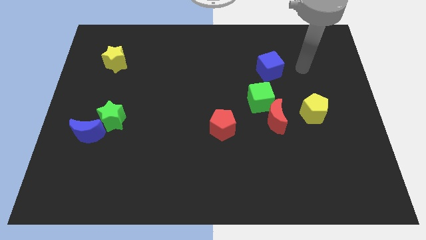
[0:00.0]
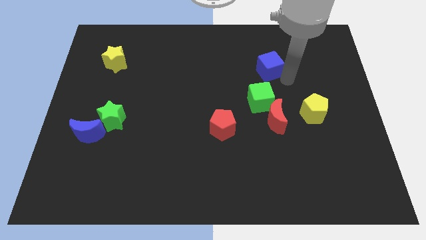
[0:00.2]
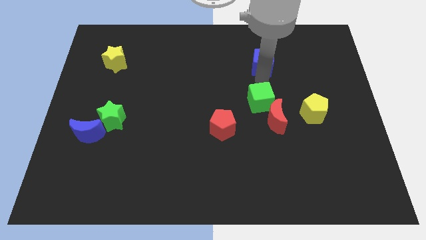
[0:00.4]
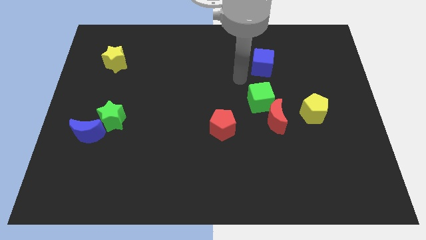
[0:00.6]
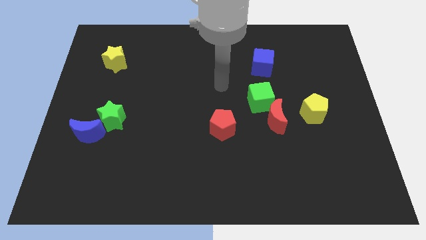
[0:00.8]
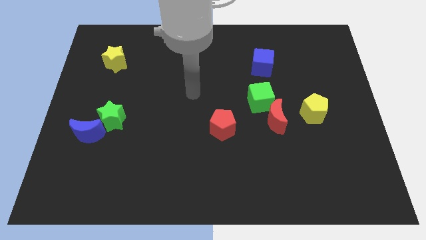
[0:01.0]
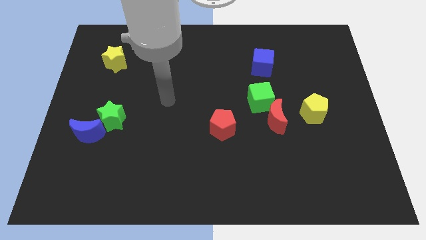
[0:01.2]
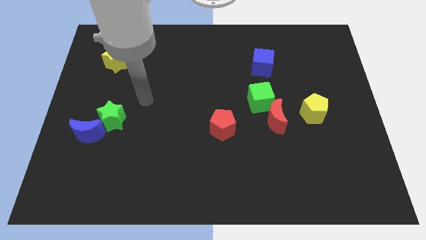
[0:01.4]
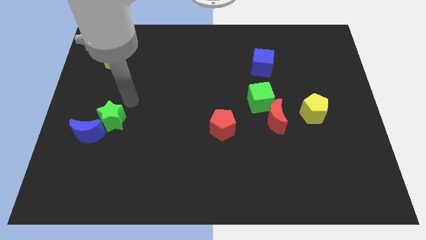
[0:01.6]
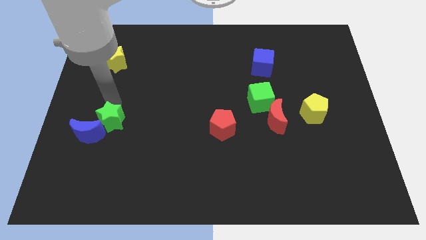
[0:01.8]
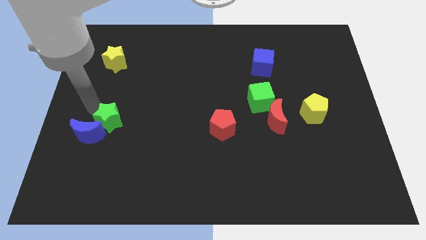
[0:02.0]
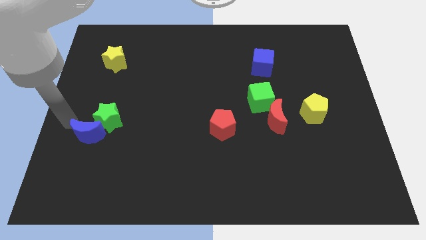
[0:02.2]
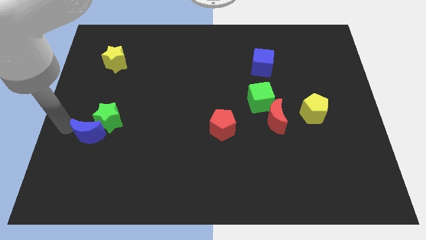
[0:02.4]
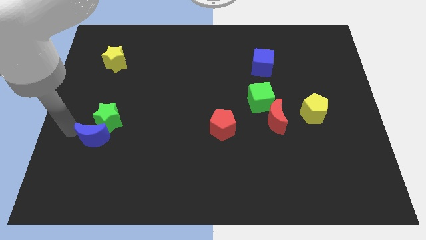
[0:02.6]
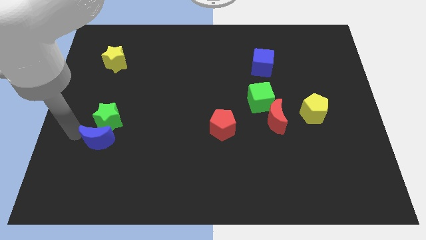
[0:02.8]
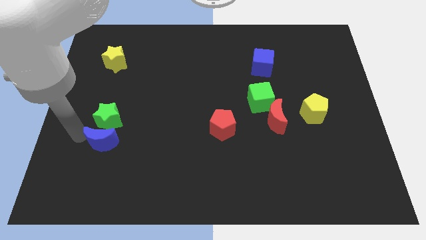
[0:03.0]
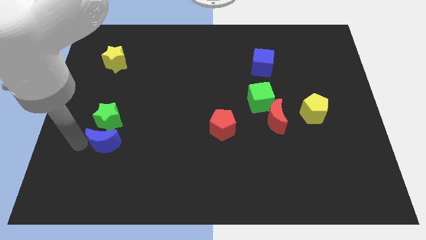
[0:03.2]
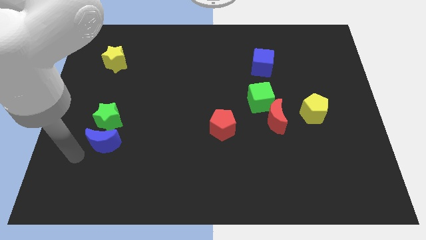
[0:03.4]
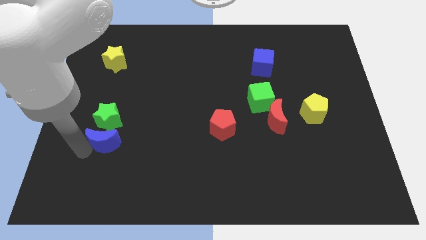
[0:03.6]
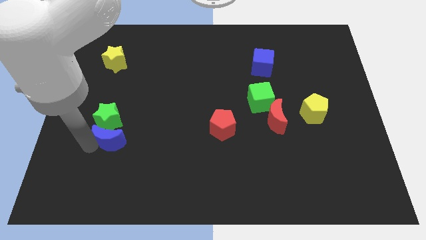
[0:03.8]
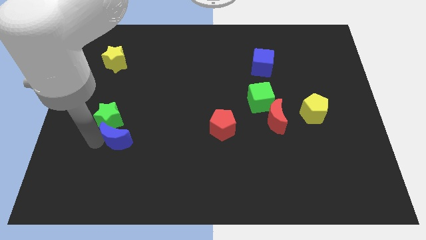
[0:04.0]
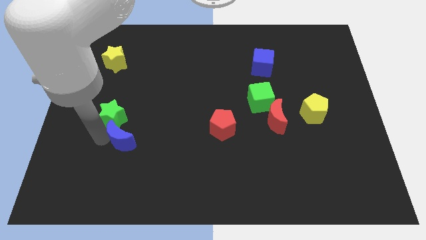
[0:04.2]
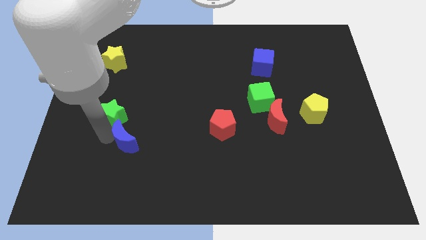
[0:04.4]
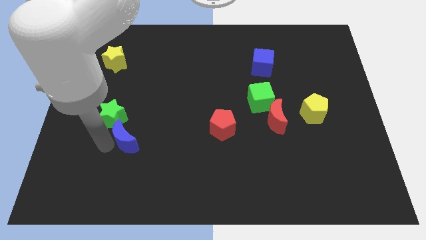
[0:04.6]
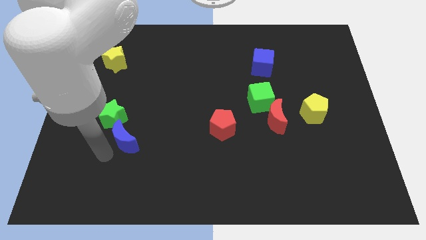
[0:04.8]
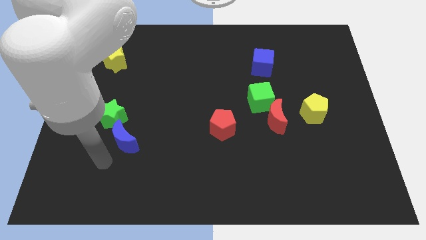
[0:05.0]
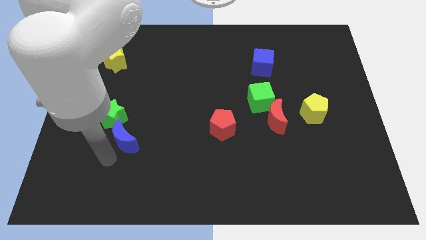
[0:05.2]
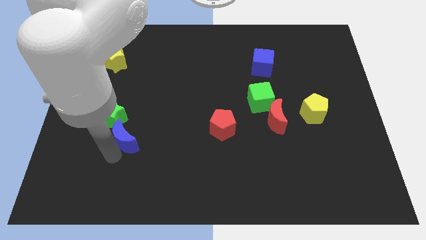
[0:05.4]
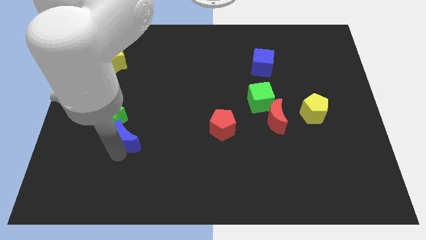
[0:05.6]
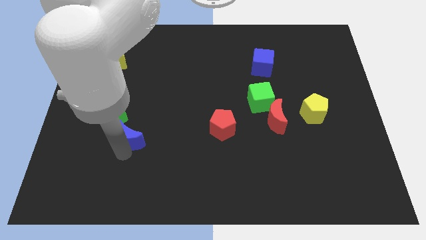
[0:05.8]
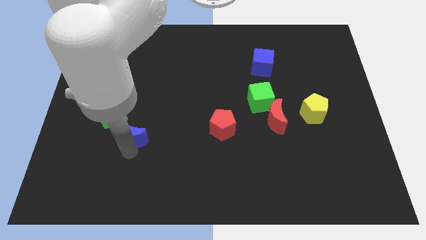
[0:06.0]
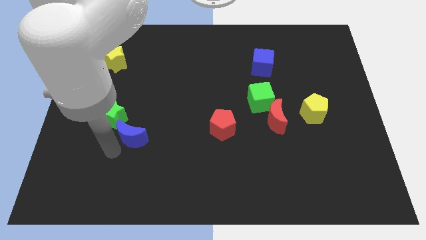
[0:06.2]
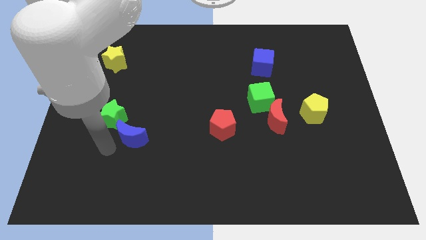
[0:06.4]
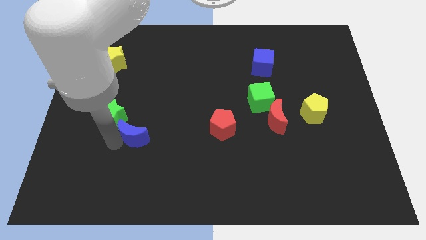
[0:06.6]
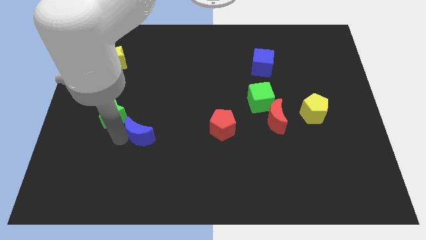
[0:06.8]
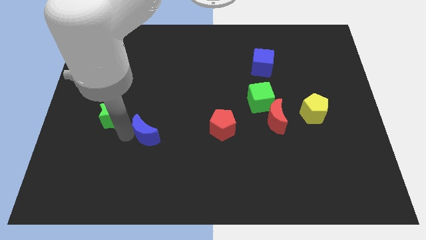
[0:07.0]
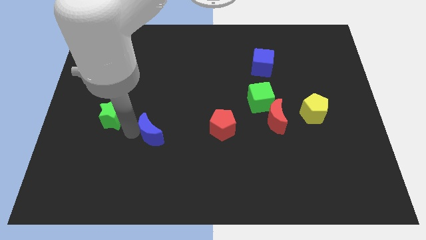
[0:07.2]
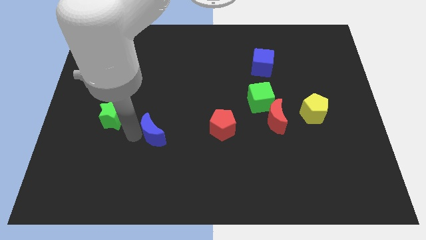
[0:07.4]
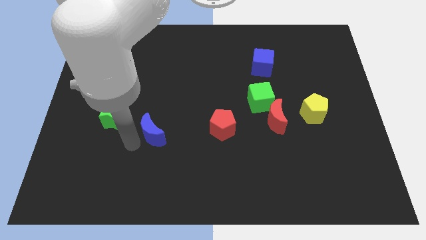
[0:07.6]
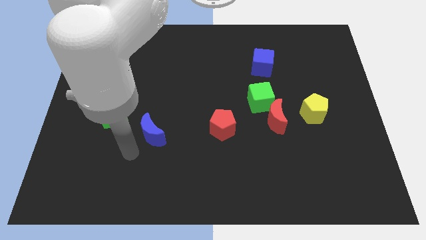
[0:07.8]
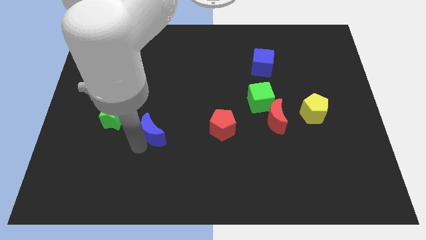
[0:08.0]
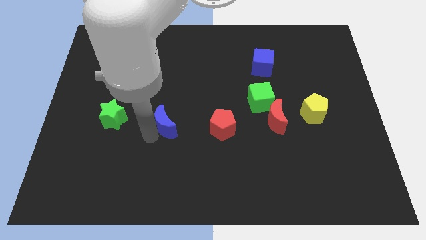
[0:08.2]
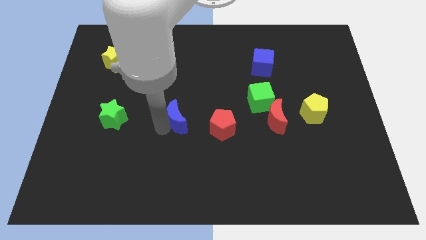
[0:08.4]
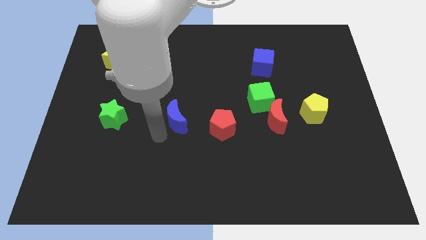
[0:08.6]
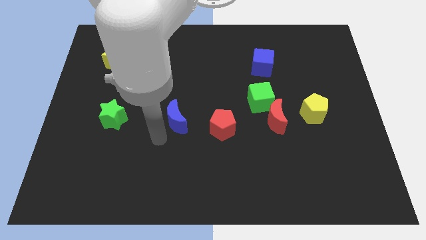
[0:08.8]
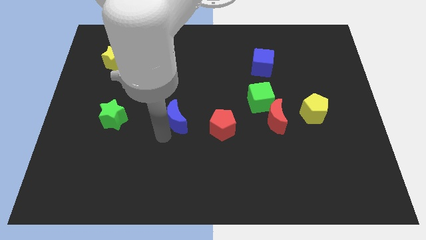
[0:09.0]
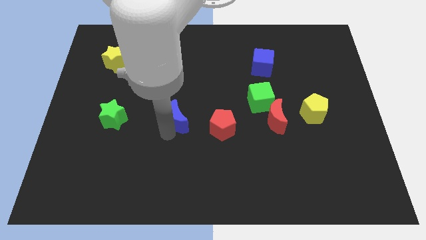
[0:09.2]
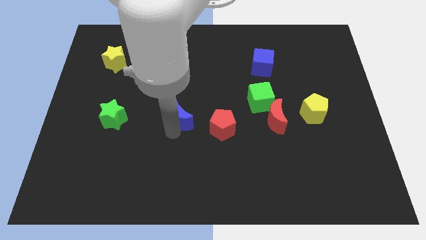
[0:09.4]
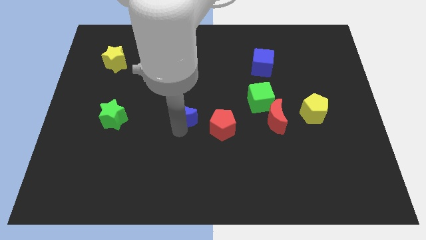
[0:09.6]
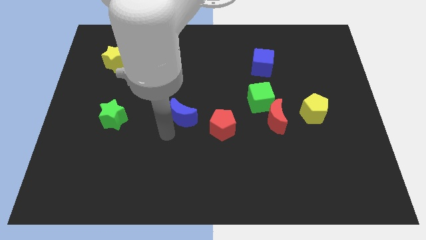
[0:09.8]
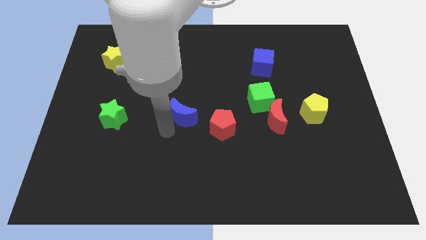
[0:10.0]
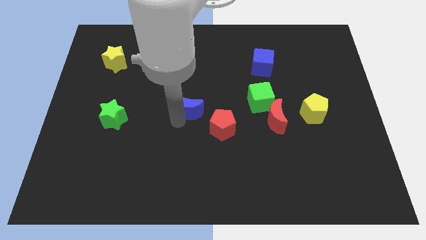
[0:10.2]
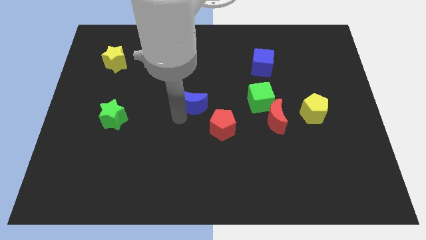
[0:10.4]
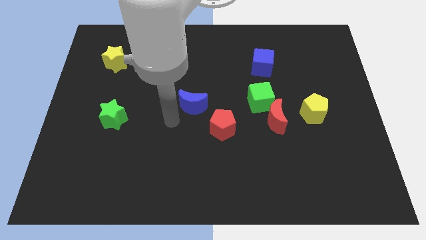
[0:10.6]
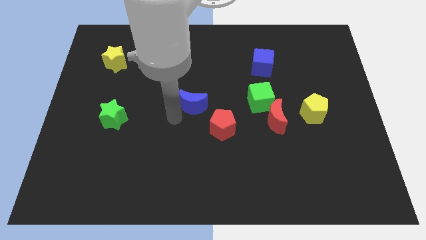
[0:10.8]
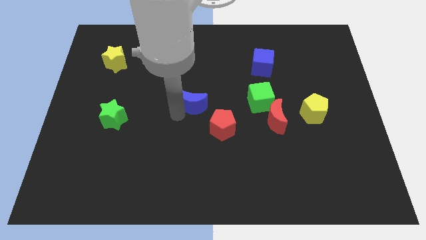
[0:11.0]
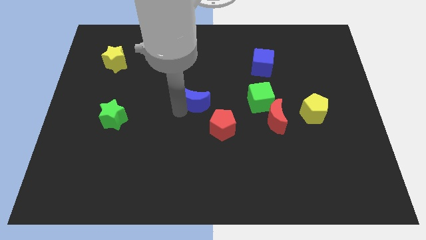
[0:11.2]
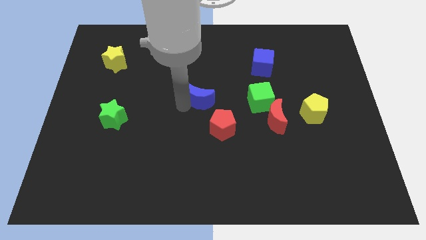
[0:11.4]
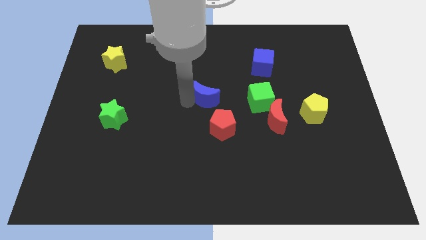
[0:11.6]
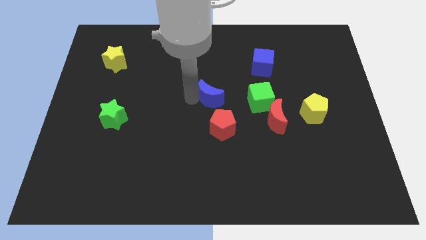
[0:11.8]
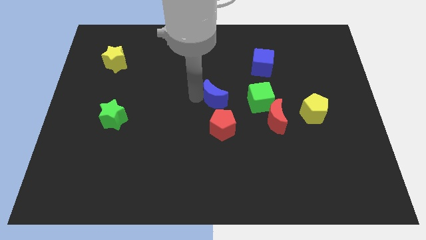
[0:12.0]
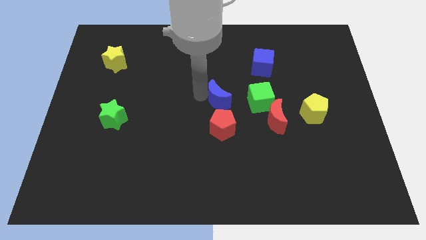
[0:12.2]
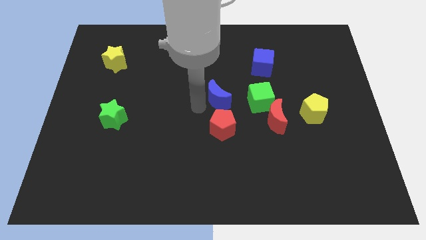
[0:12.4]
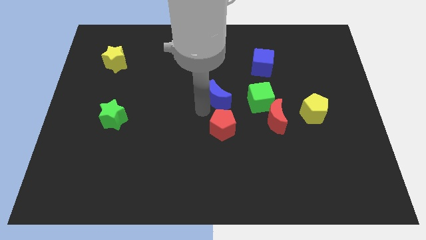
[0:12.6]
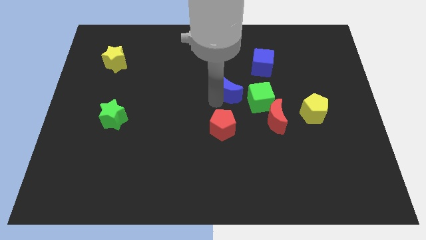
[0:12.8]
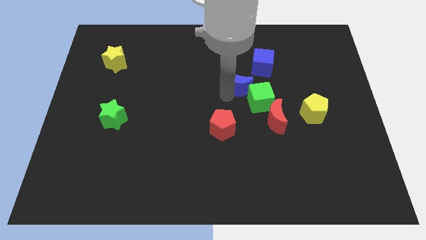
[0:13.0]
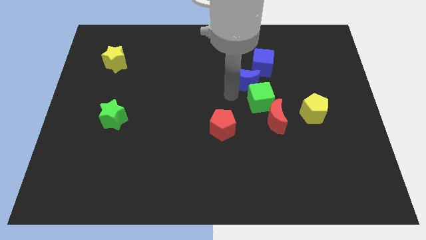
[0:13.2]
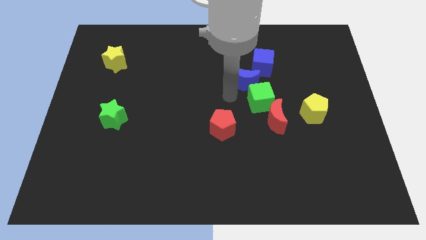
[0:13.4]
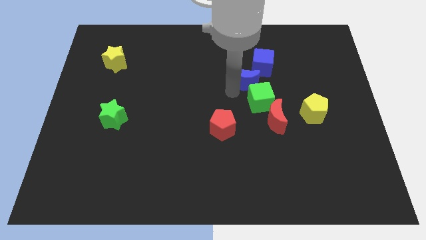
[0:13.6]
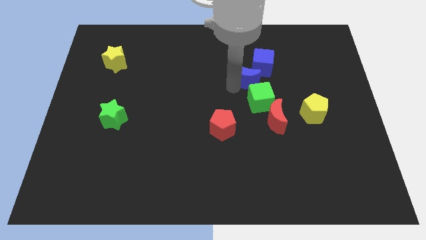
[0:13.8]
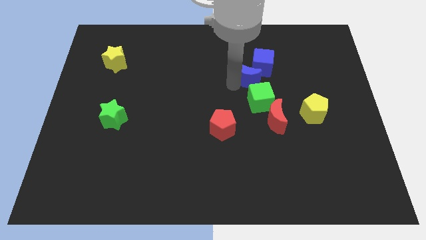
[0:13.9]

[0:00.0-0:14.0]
move the blue moon close to the blue cube
